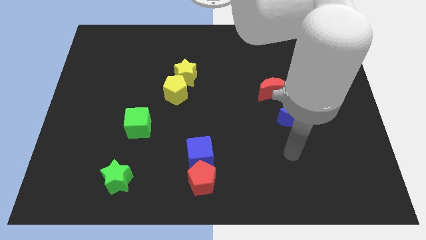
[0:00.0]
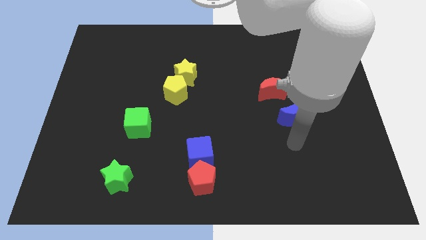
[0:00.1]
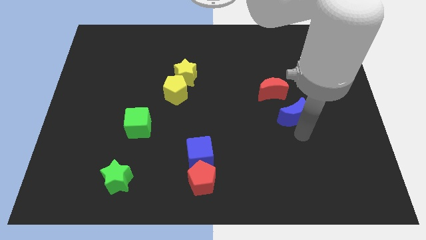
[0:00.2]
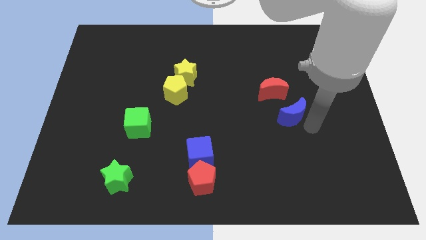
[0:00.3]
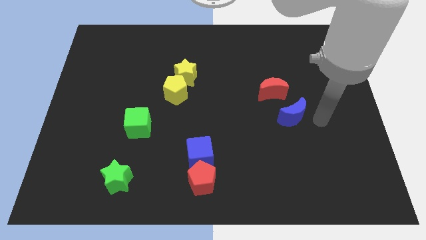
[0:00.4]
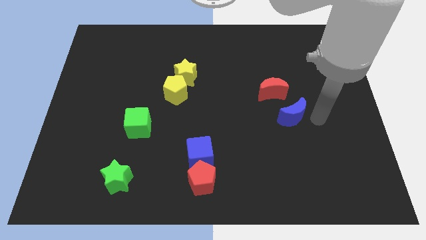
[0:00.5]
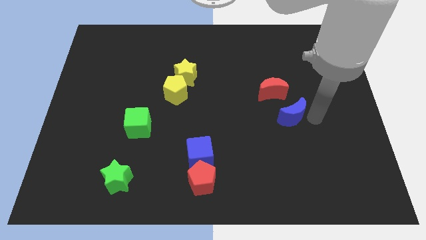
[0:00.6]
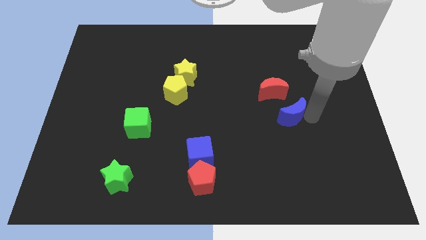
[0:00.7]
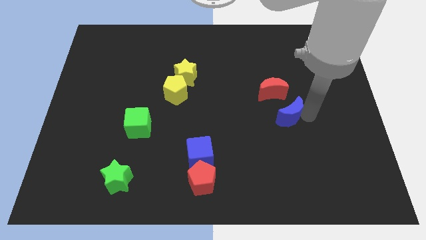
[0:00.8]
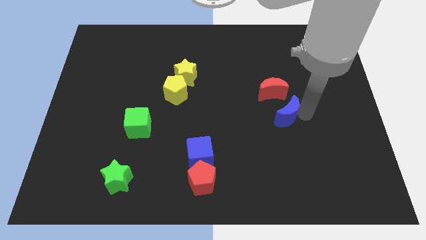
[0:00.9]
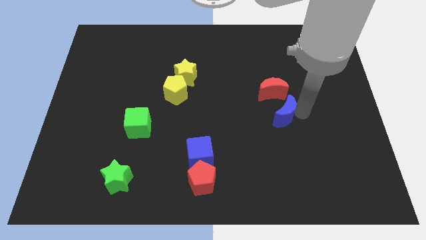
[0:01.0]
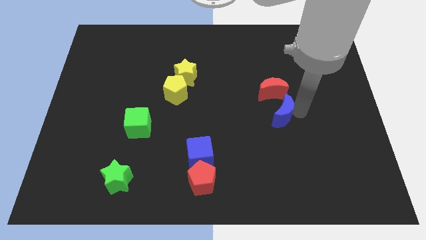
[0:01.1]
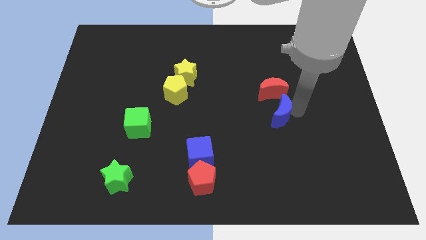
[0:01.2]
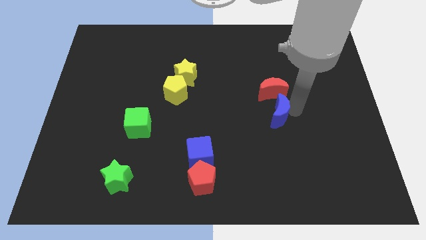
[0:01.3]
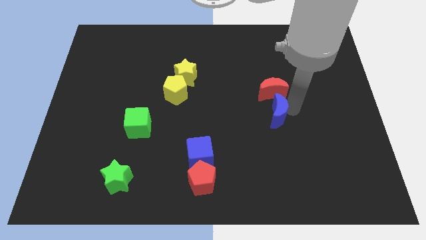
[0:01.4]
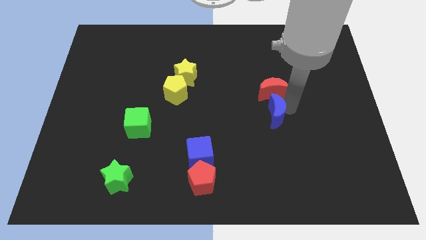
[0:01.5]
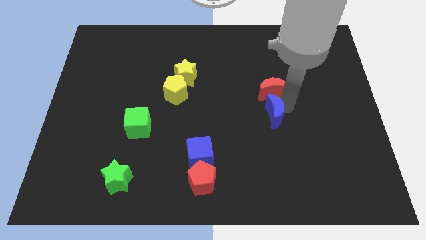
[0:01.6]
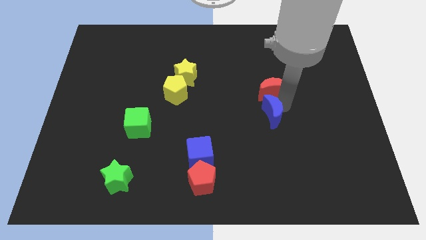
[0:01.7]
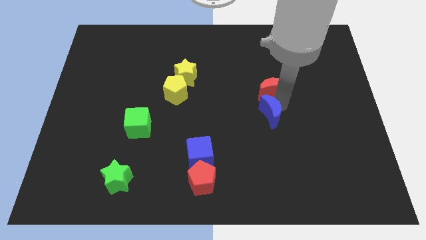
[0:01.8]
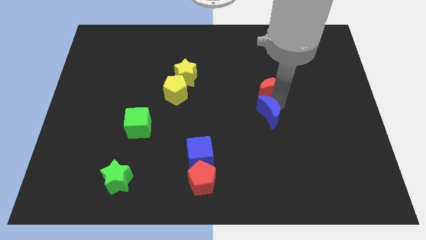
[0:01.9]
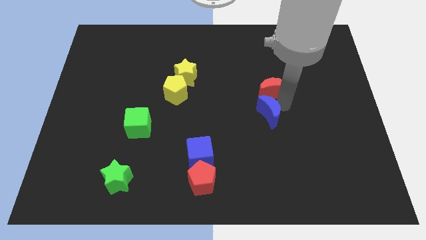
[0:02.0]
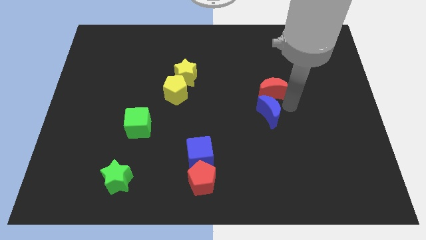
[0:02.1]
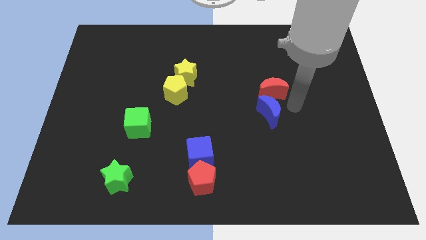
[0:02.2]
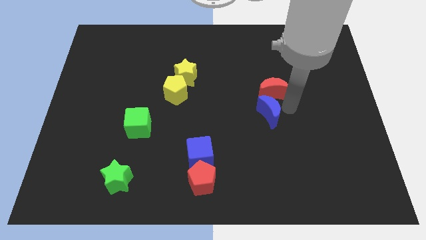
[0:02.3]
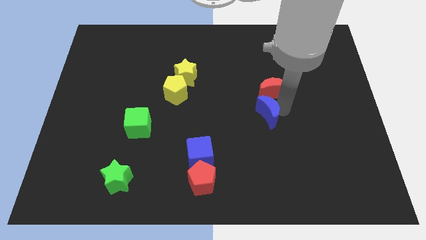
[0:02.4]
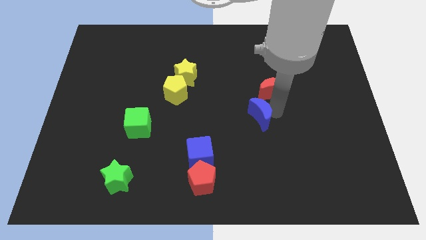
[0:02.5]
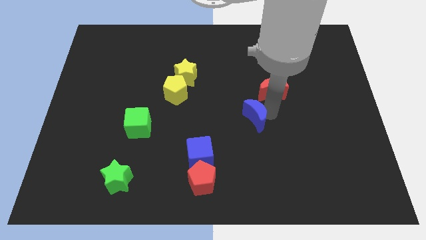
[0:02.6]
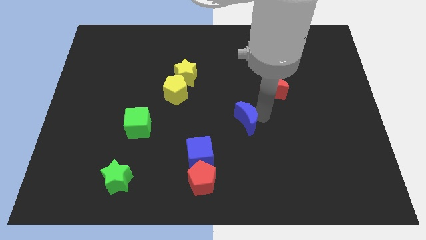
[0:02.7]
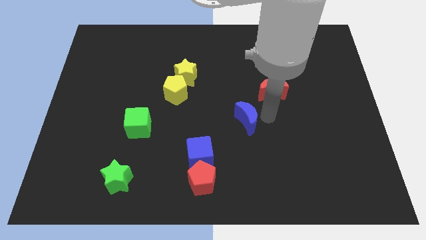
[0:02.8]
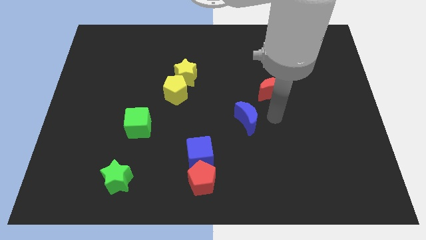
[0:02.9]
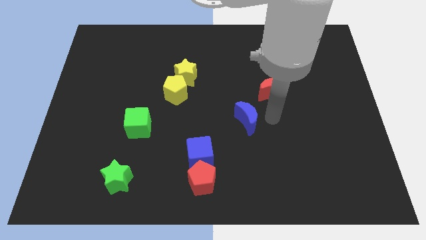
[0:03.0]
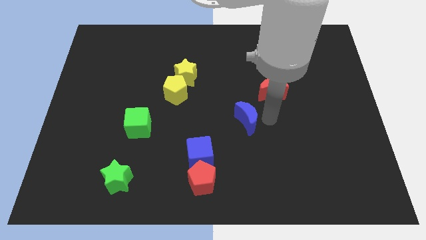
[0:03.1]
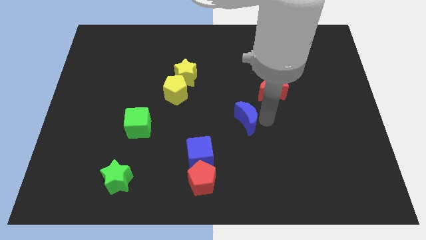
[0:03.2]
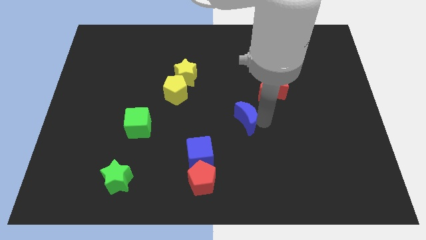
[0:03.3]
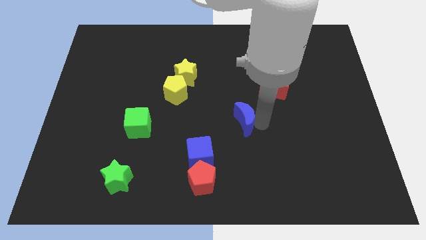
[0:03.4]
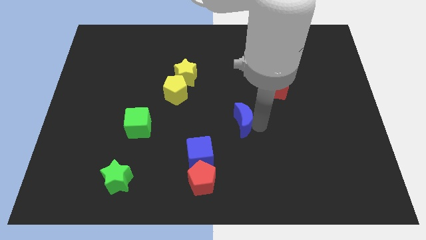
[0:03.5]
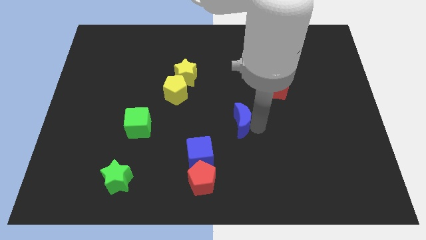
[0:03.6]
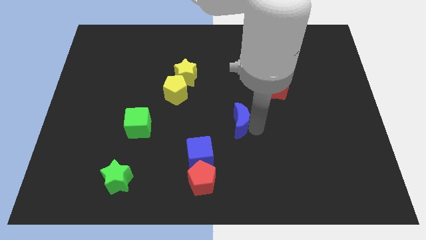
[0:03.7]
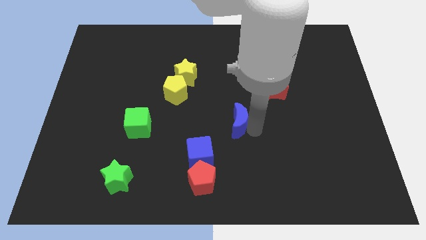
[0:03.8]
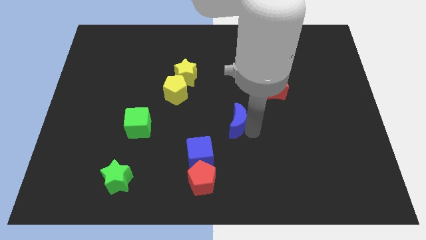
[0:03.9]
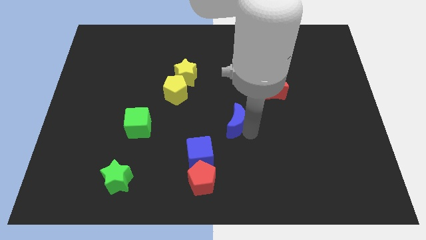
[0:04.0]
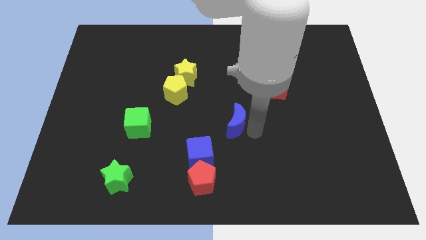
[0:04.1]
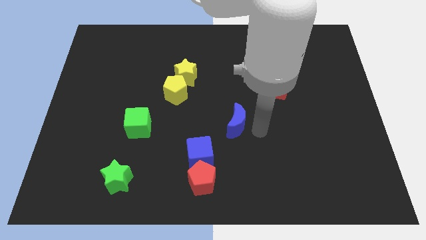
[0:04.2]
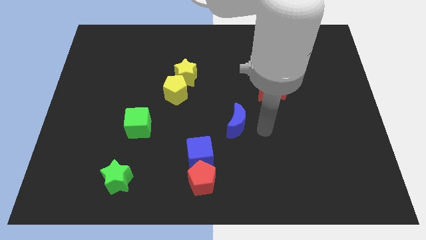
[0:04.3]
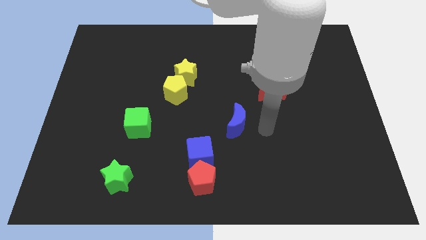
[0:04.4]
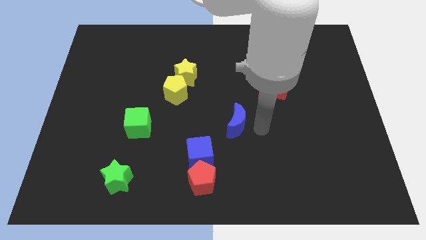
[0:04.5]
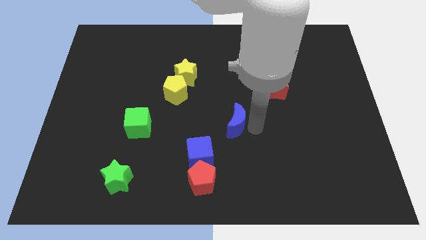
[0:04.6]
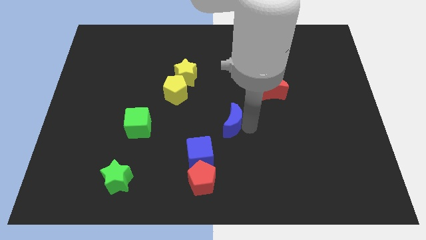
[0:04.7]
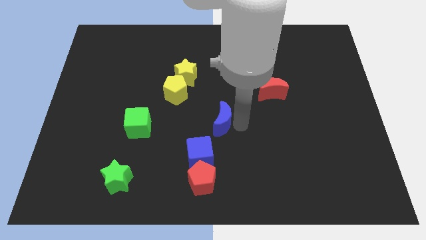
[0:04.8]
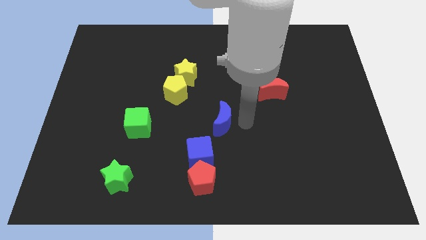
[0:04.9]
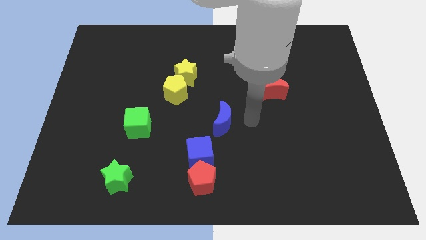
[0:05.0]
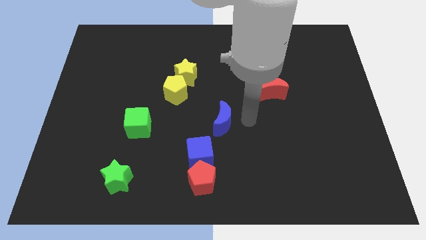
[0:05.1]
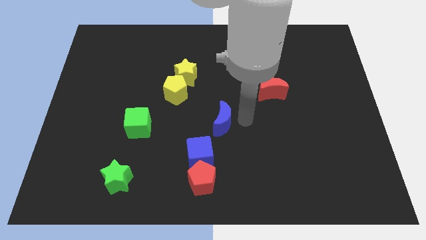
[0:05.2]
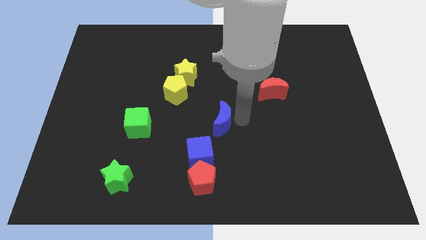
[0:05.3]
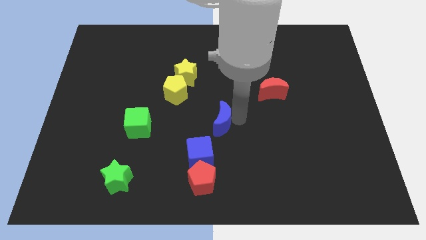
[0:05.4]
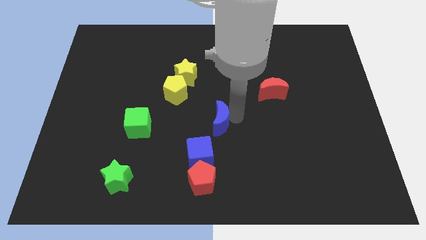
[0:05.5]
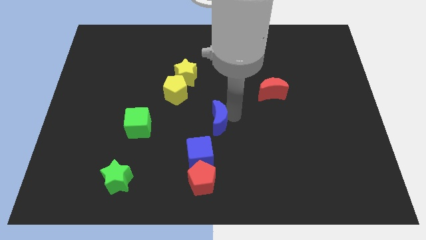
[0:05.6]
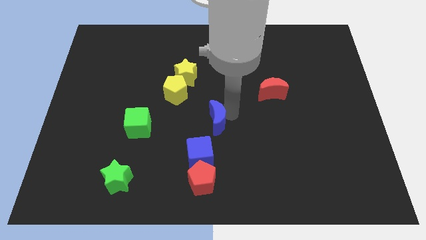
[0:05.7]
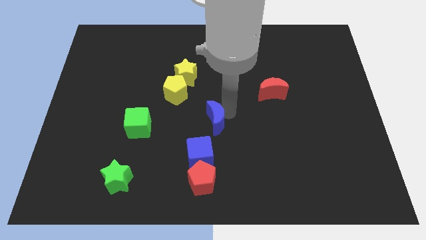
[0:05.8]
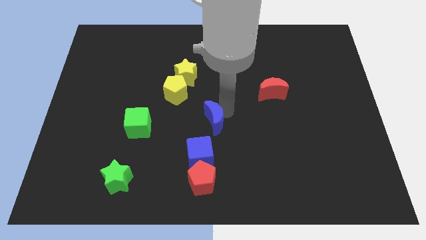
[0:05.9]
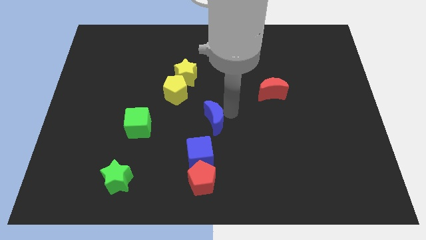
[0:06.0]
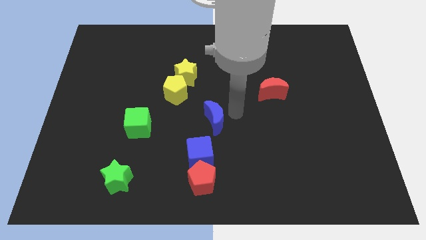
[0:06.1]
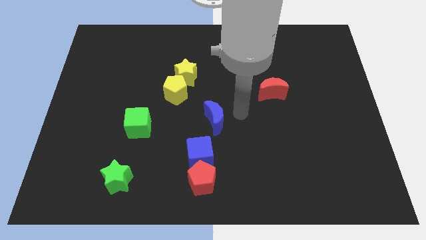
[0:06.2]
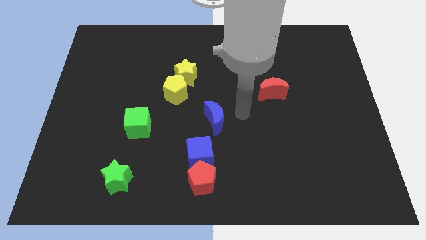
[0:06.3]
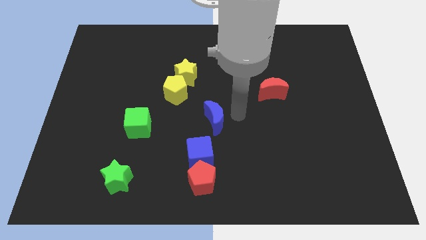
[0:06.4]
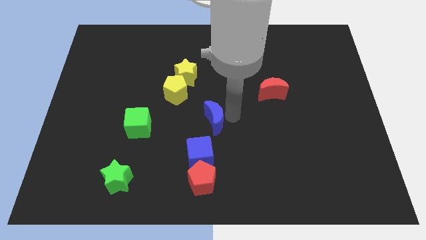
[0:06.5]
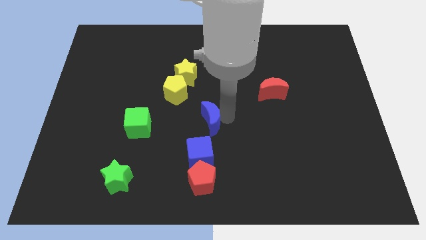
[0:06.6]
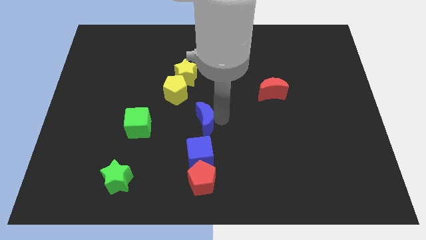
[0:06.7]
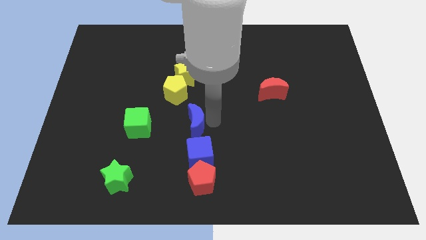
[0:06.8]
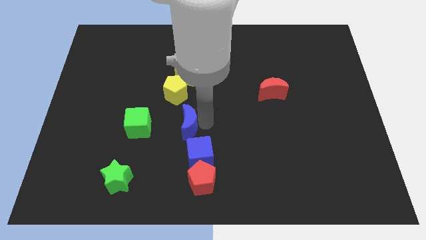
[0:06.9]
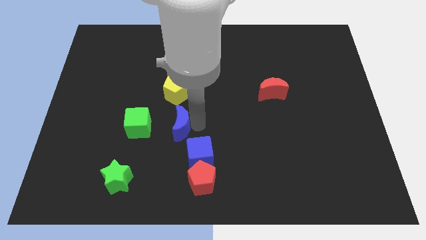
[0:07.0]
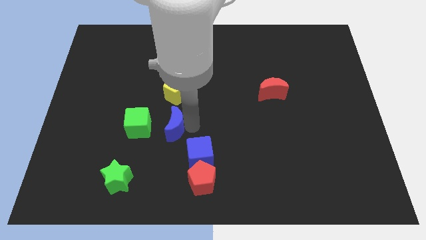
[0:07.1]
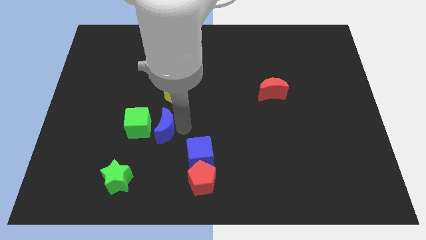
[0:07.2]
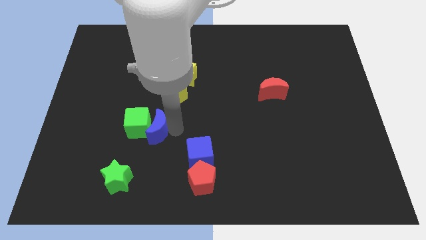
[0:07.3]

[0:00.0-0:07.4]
push the blue moon close to the green cube
